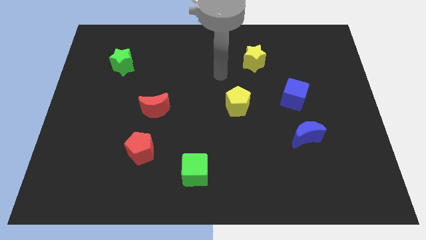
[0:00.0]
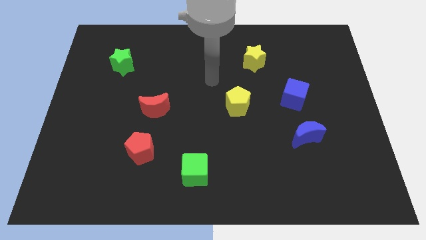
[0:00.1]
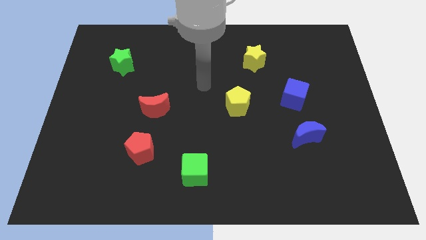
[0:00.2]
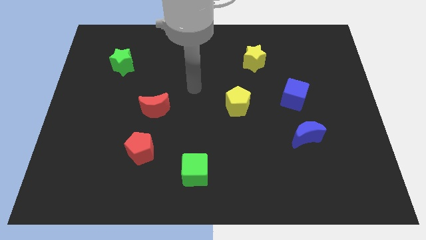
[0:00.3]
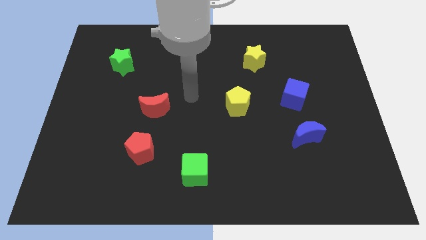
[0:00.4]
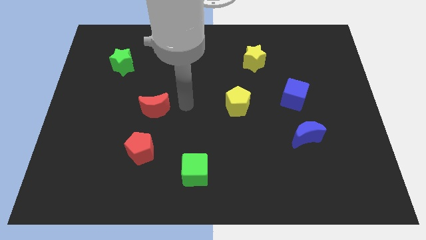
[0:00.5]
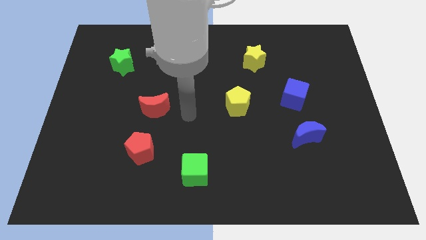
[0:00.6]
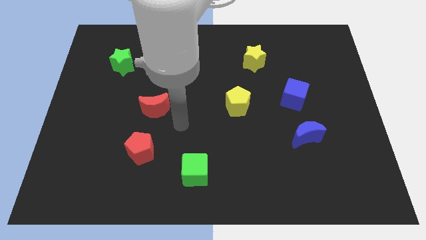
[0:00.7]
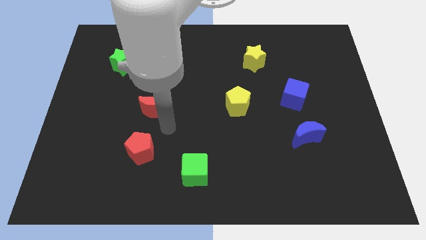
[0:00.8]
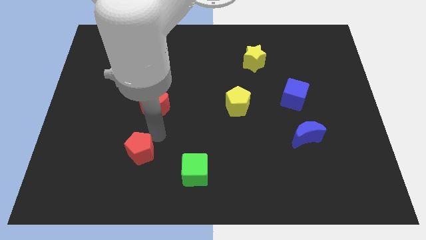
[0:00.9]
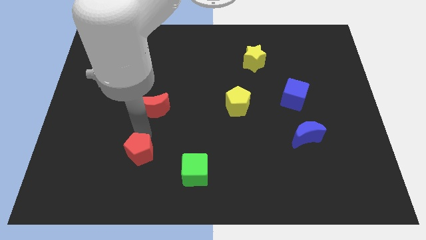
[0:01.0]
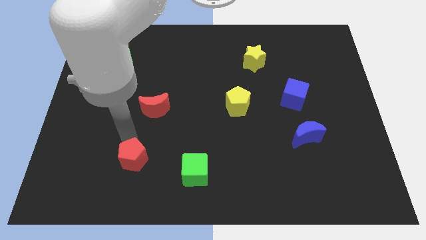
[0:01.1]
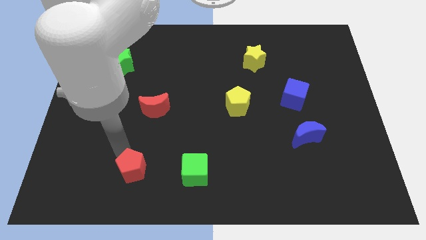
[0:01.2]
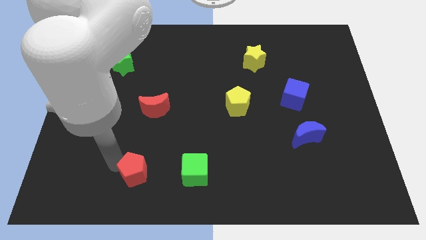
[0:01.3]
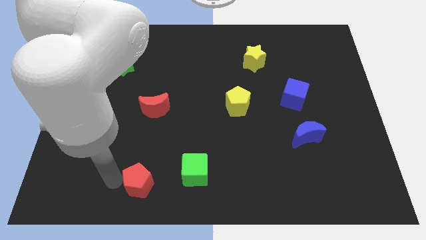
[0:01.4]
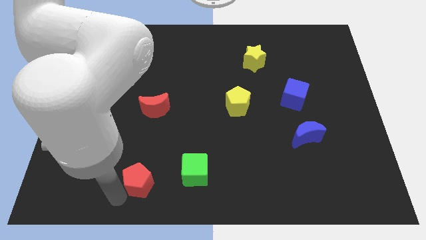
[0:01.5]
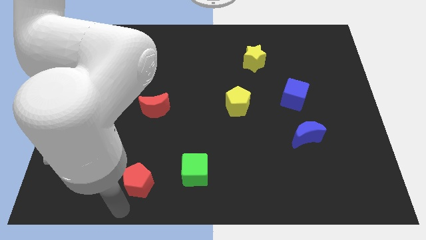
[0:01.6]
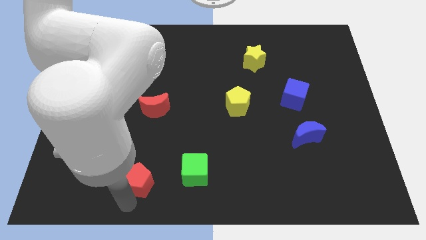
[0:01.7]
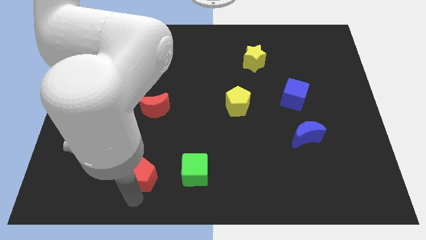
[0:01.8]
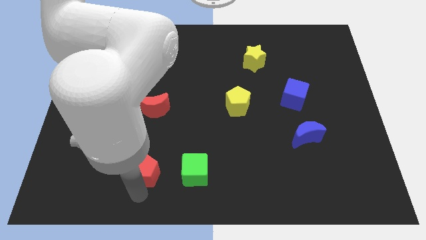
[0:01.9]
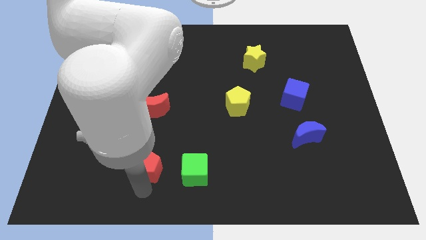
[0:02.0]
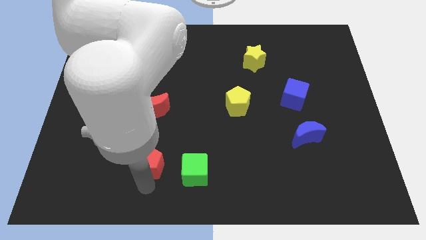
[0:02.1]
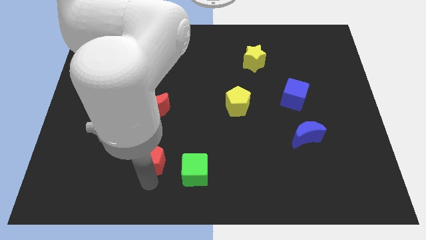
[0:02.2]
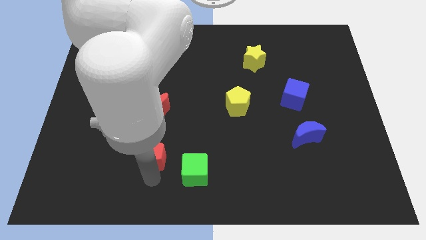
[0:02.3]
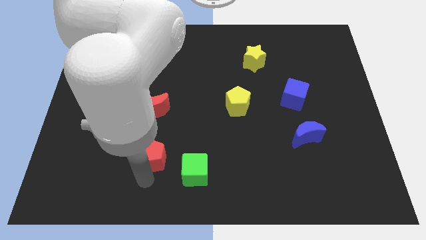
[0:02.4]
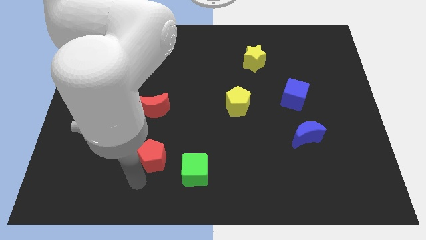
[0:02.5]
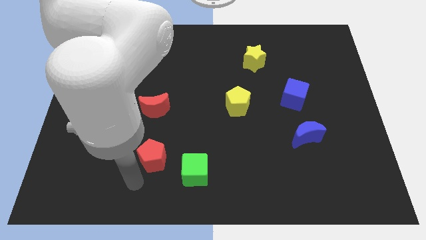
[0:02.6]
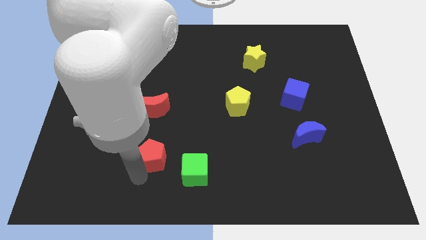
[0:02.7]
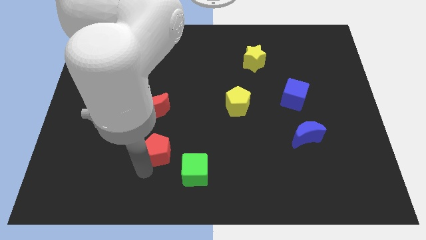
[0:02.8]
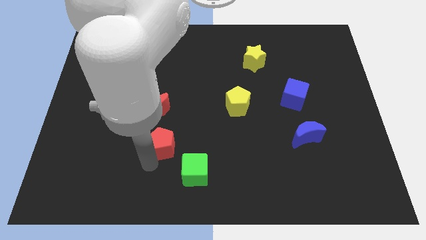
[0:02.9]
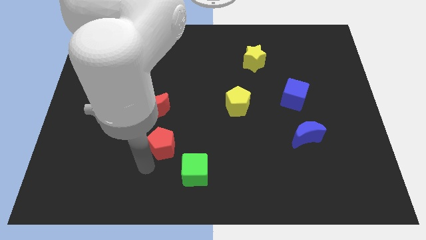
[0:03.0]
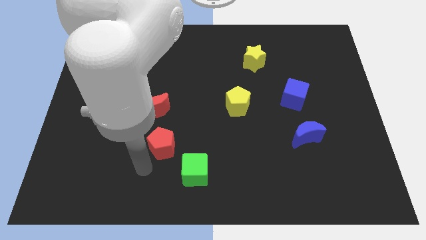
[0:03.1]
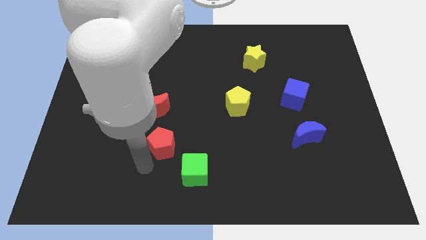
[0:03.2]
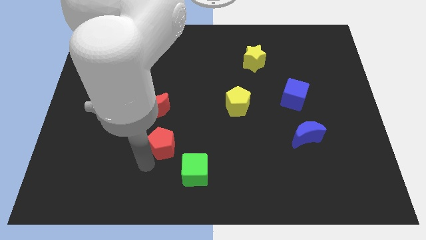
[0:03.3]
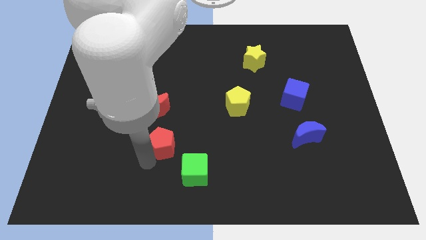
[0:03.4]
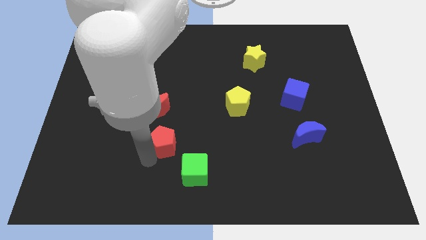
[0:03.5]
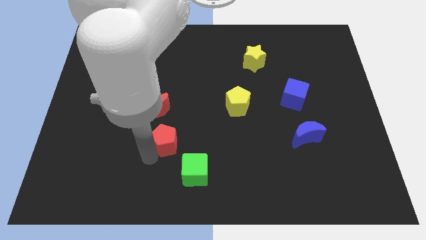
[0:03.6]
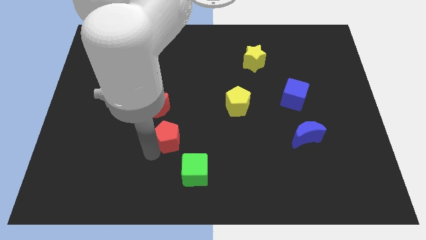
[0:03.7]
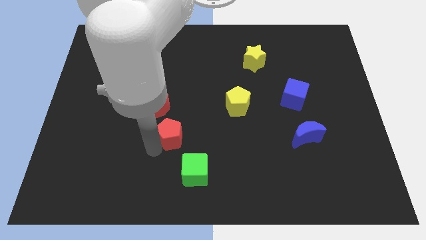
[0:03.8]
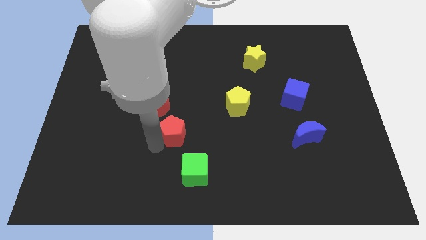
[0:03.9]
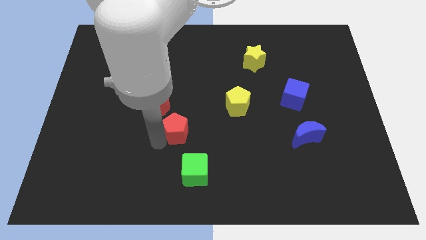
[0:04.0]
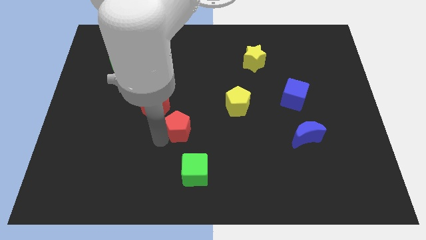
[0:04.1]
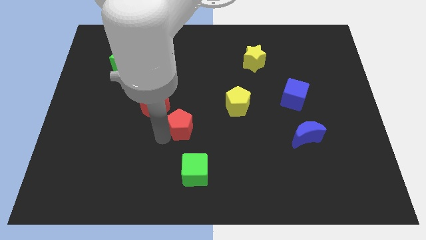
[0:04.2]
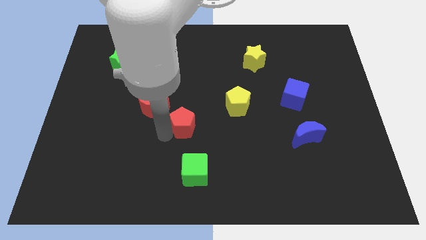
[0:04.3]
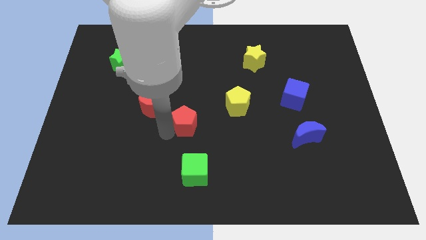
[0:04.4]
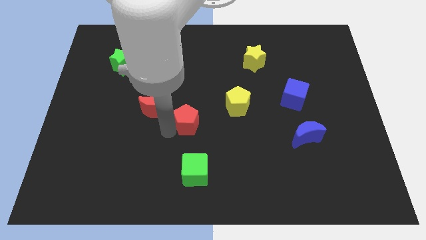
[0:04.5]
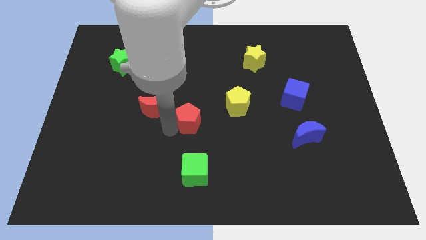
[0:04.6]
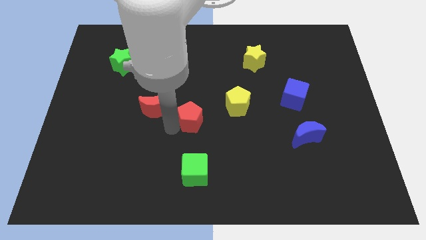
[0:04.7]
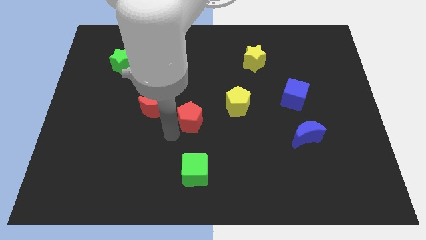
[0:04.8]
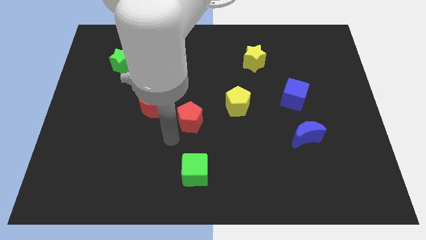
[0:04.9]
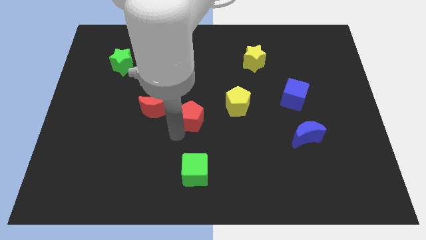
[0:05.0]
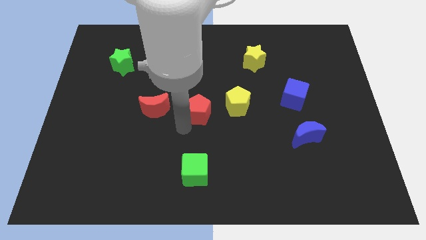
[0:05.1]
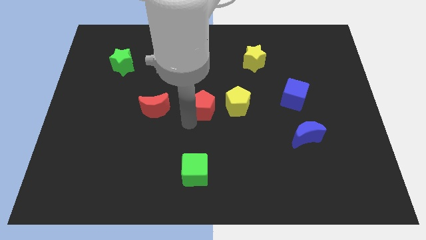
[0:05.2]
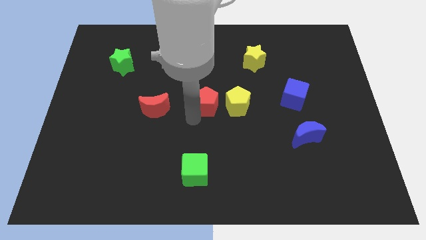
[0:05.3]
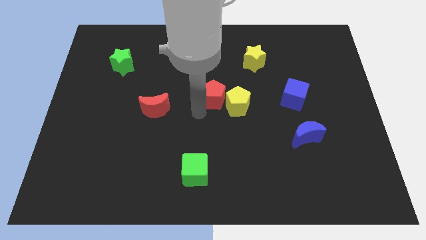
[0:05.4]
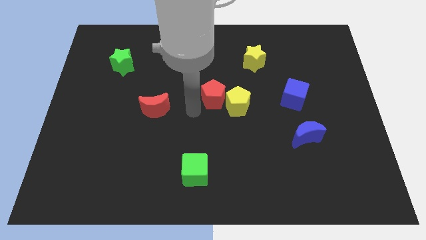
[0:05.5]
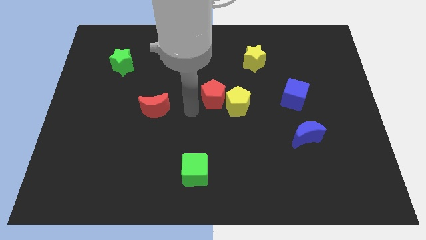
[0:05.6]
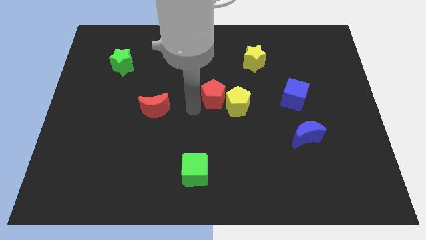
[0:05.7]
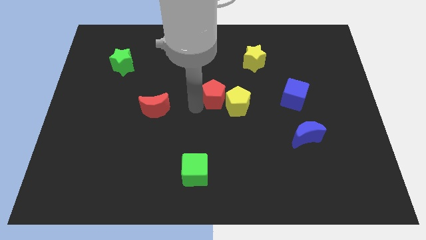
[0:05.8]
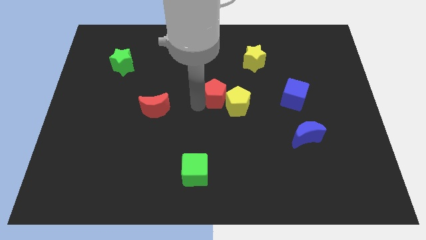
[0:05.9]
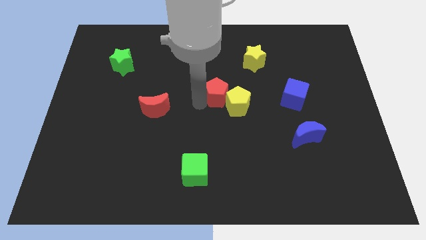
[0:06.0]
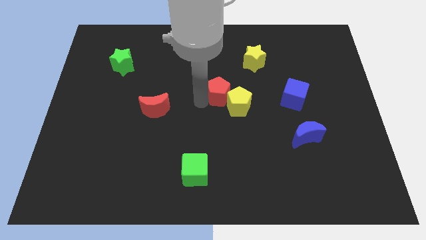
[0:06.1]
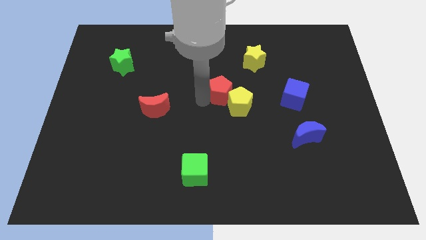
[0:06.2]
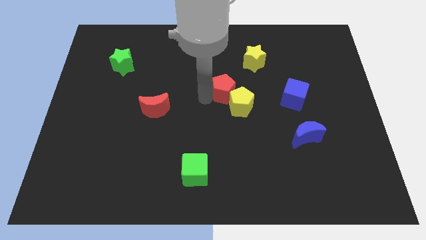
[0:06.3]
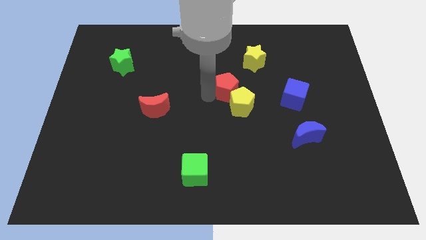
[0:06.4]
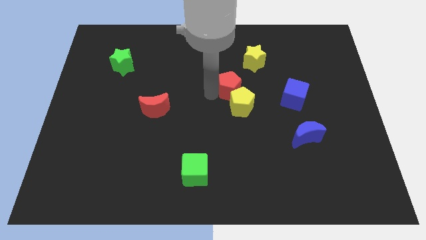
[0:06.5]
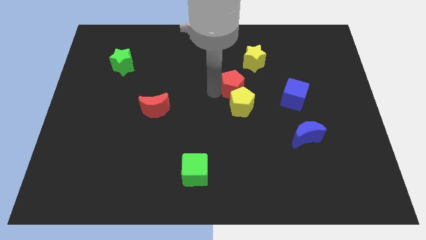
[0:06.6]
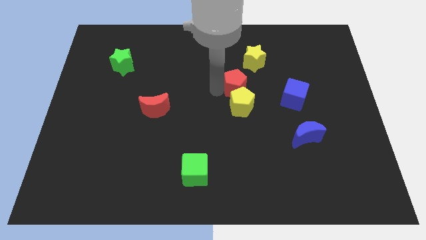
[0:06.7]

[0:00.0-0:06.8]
move the red pentagon to the top right of the yellow pentagon
